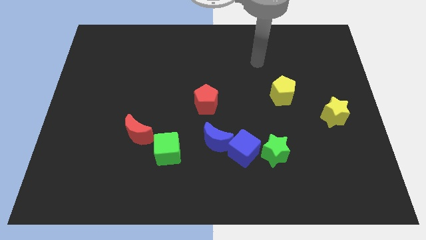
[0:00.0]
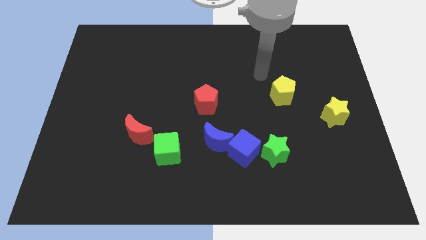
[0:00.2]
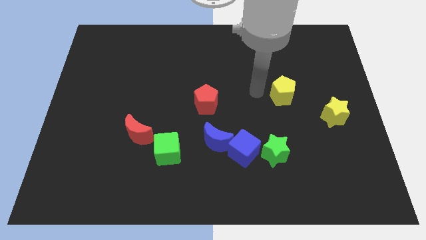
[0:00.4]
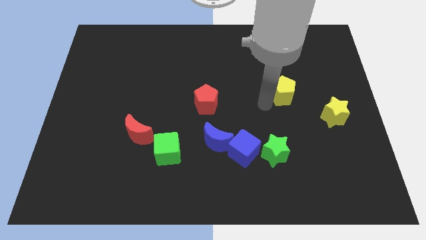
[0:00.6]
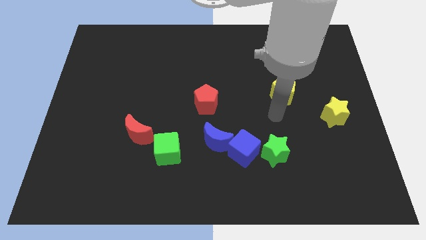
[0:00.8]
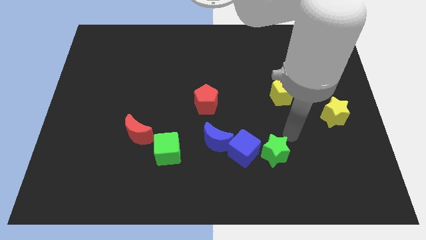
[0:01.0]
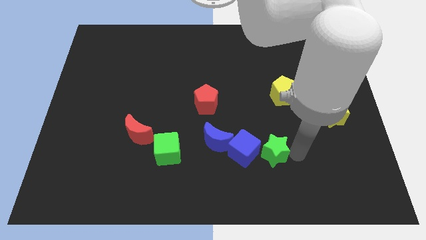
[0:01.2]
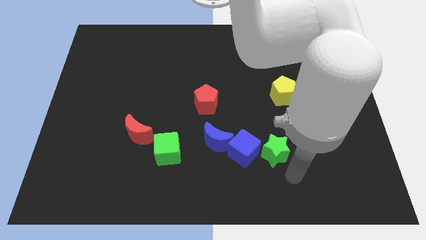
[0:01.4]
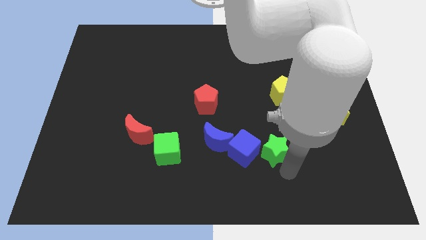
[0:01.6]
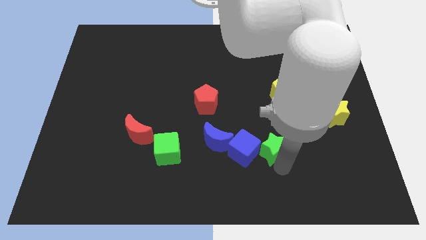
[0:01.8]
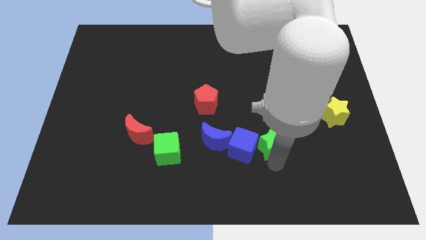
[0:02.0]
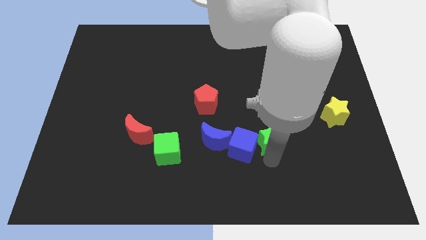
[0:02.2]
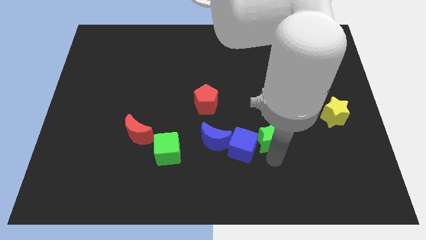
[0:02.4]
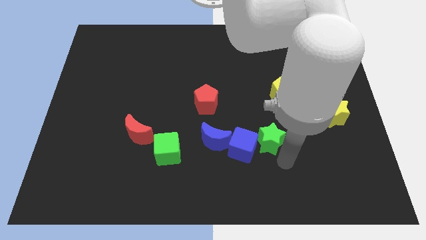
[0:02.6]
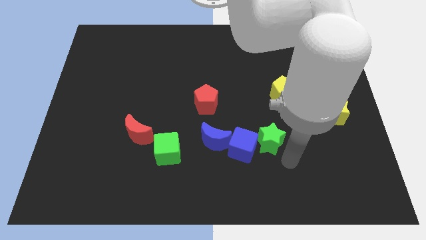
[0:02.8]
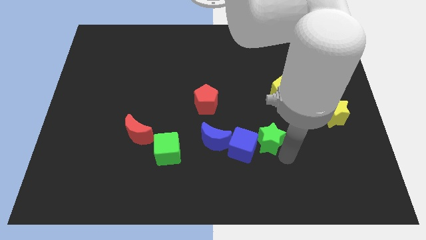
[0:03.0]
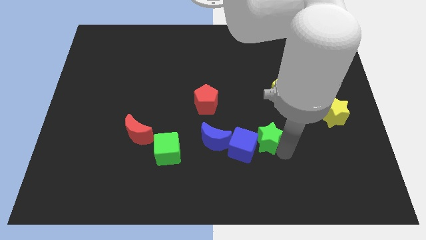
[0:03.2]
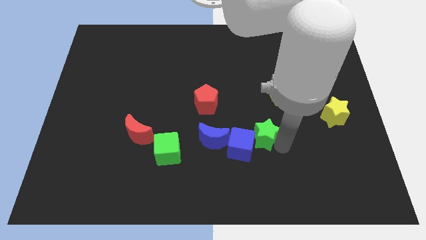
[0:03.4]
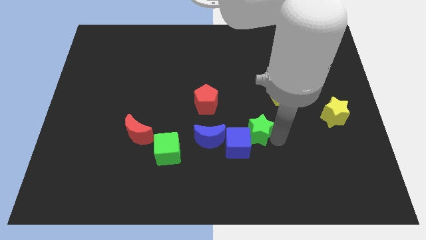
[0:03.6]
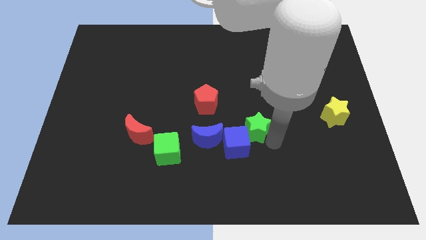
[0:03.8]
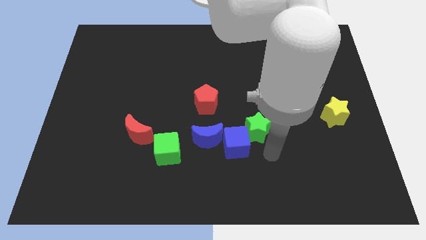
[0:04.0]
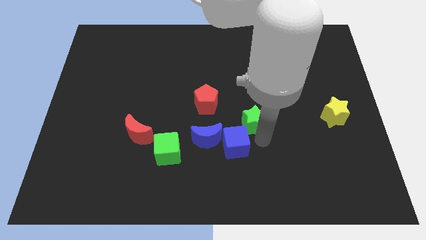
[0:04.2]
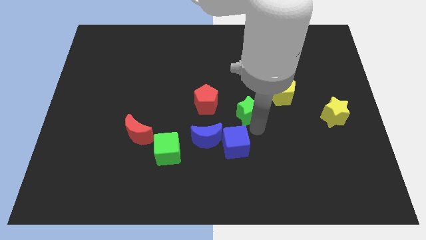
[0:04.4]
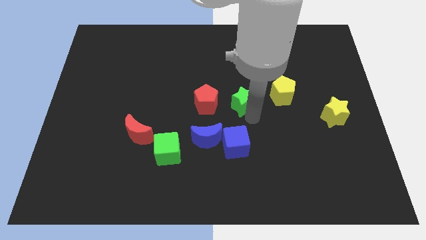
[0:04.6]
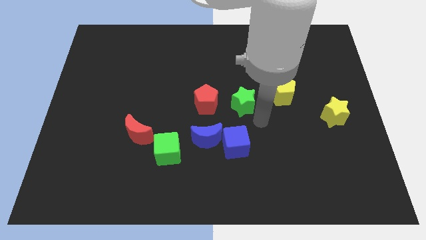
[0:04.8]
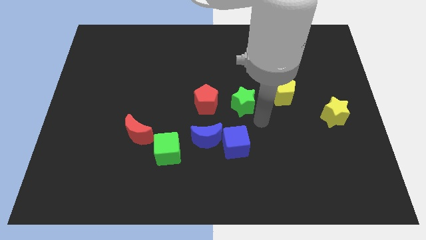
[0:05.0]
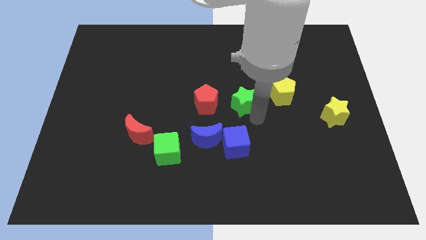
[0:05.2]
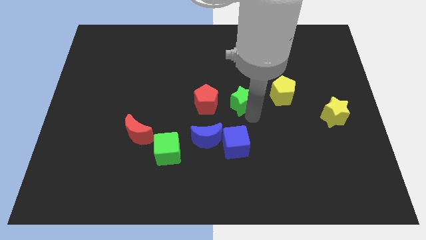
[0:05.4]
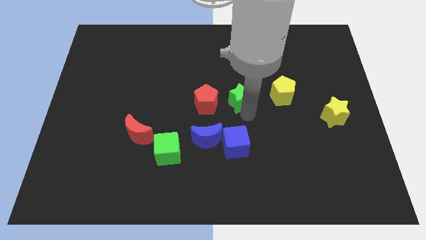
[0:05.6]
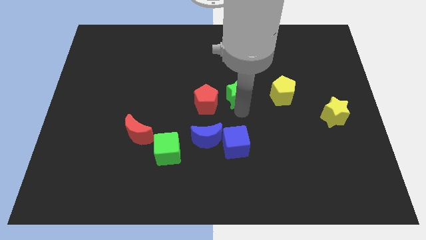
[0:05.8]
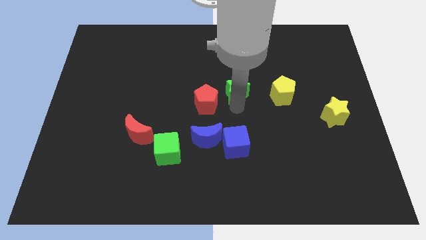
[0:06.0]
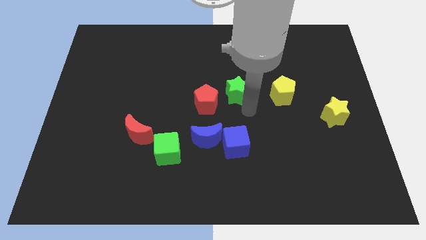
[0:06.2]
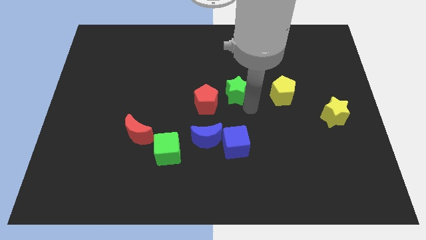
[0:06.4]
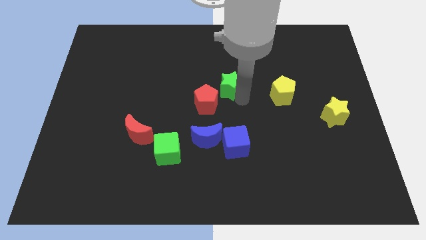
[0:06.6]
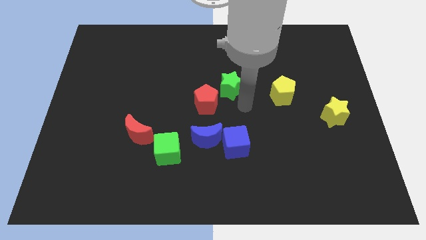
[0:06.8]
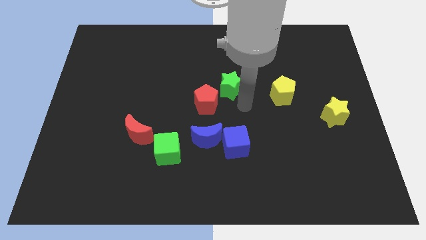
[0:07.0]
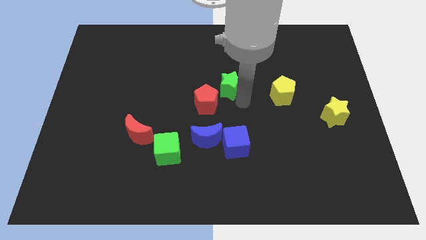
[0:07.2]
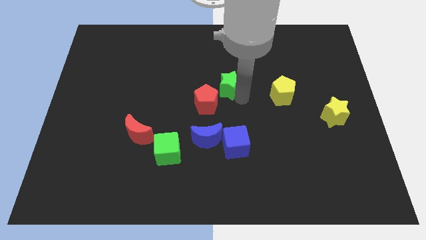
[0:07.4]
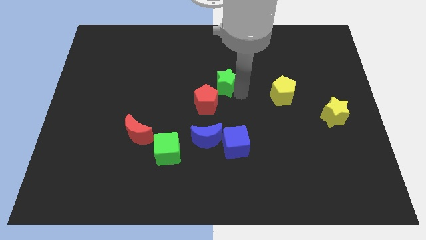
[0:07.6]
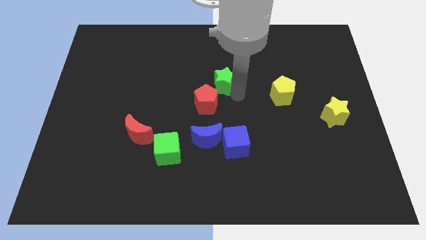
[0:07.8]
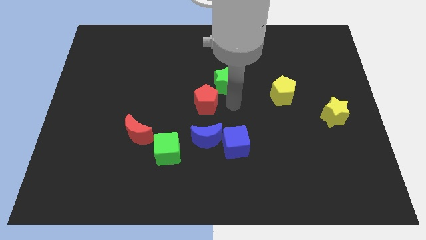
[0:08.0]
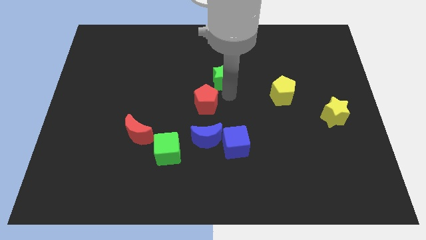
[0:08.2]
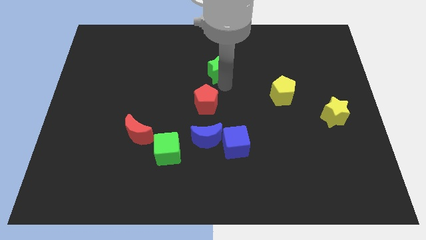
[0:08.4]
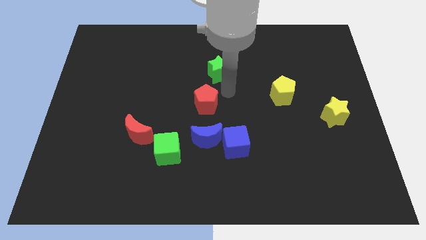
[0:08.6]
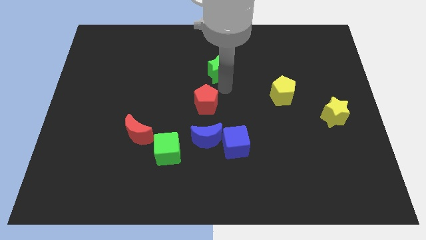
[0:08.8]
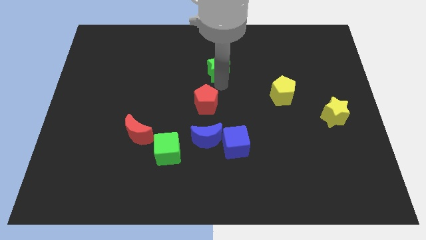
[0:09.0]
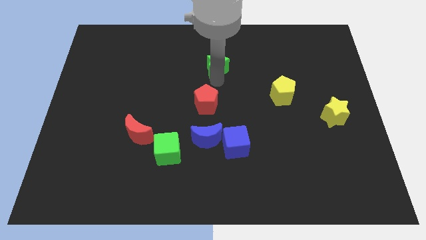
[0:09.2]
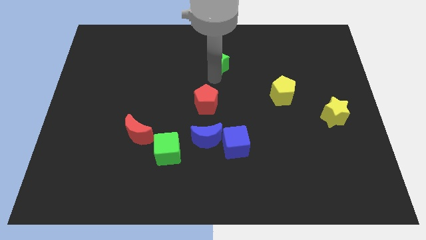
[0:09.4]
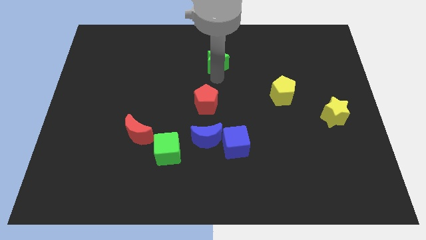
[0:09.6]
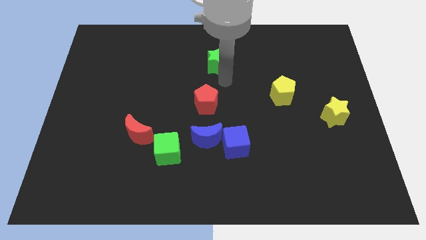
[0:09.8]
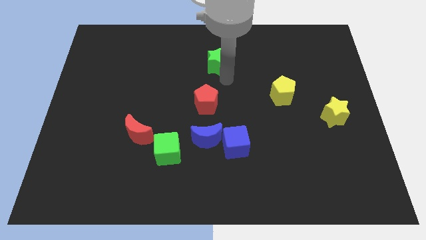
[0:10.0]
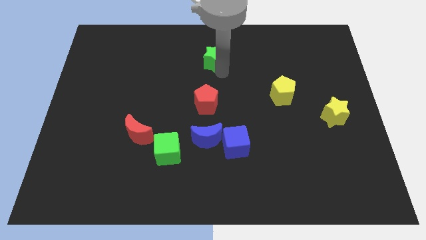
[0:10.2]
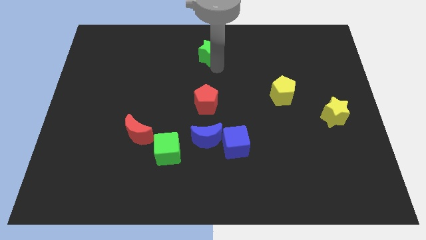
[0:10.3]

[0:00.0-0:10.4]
move the green star to the top side

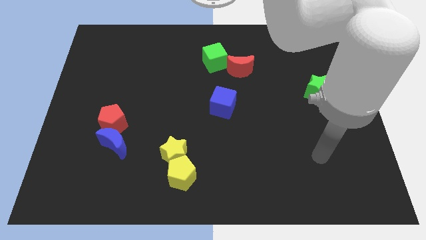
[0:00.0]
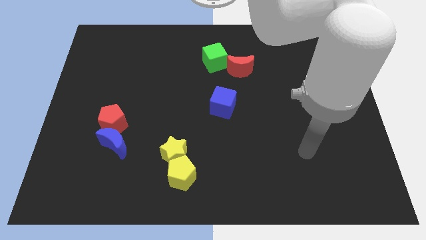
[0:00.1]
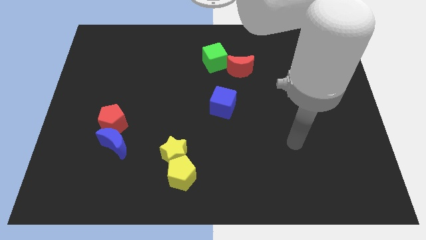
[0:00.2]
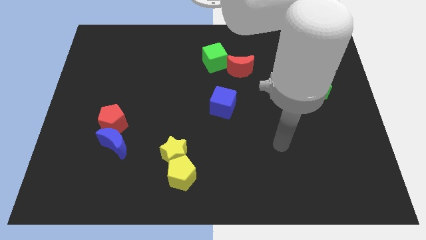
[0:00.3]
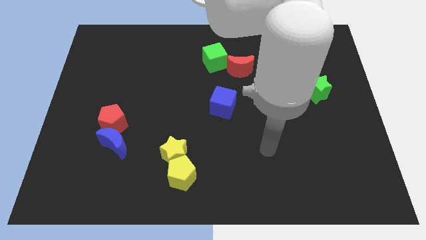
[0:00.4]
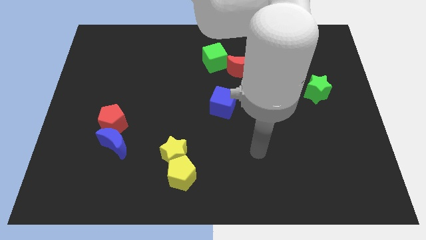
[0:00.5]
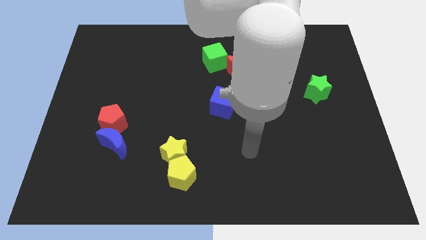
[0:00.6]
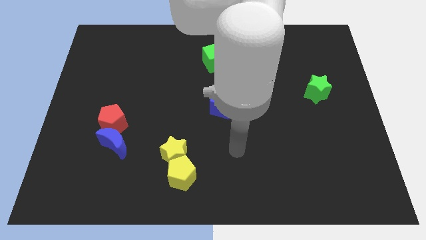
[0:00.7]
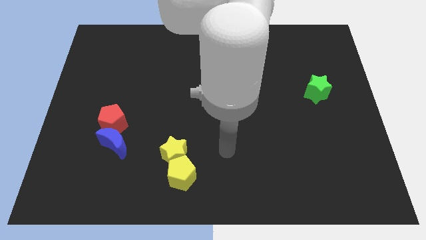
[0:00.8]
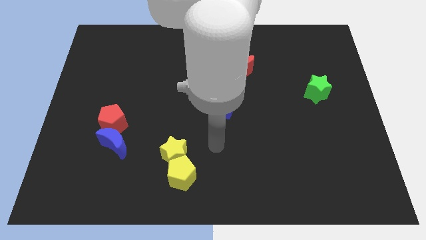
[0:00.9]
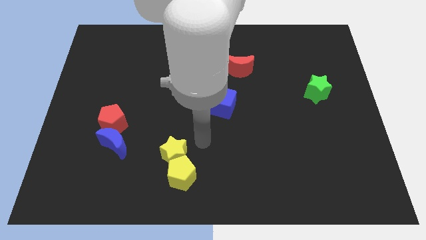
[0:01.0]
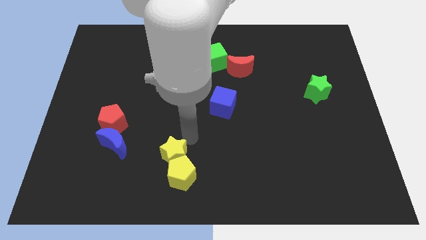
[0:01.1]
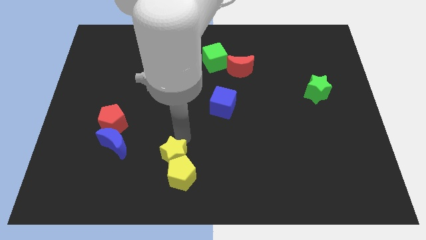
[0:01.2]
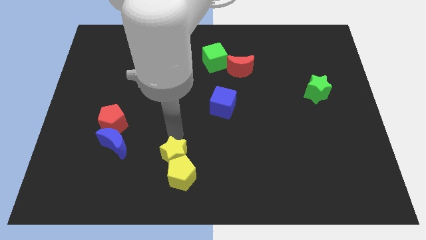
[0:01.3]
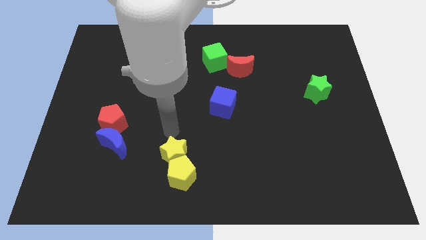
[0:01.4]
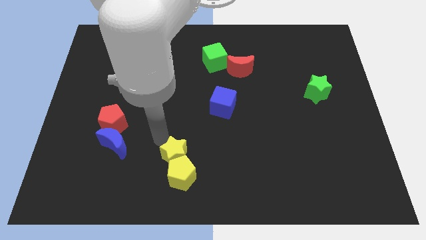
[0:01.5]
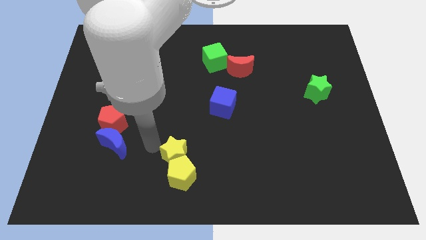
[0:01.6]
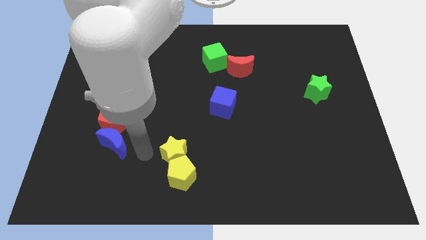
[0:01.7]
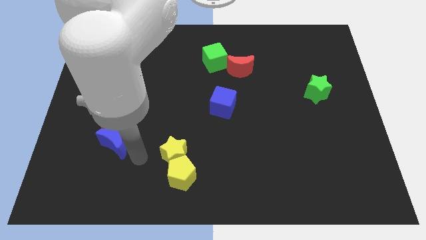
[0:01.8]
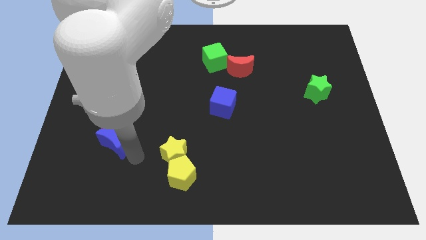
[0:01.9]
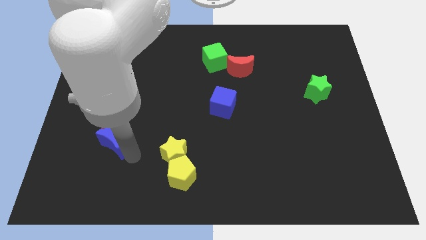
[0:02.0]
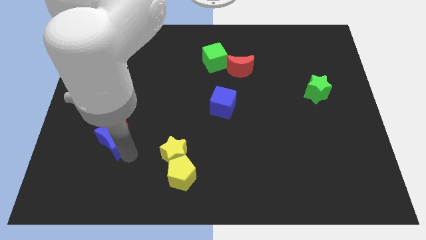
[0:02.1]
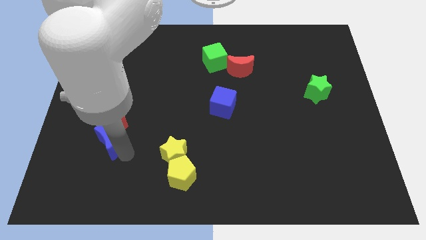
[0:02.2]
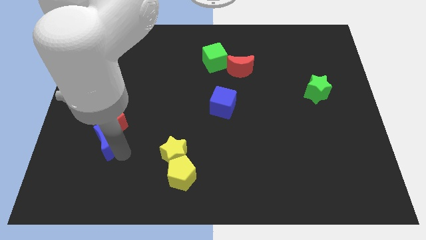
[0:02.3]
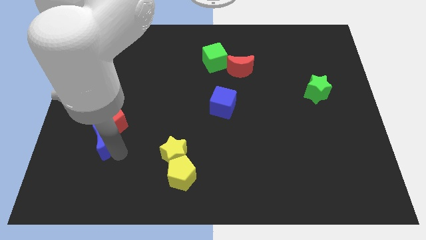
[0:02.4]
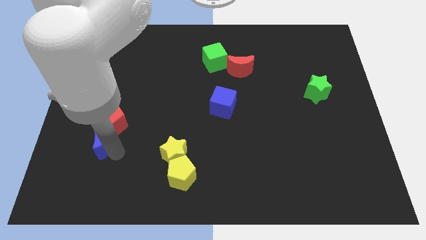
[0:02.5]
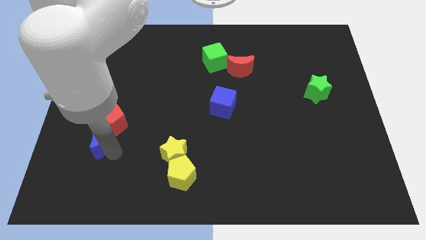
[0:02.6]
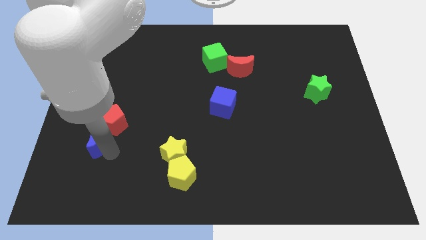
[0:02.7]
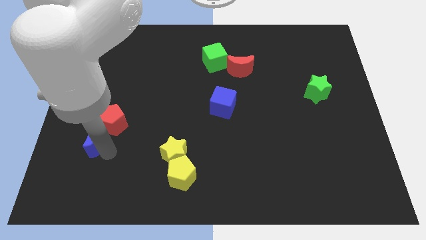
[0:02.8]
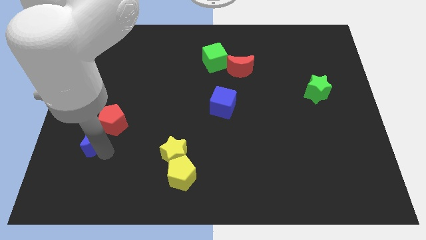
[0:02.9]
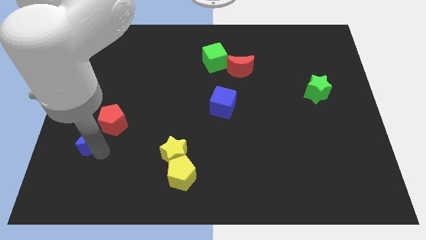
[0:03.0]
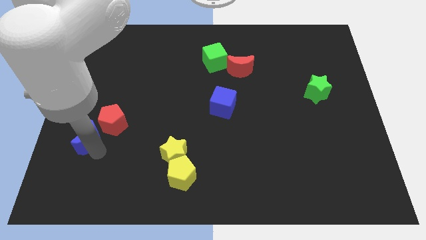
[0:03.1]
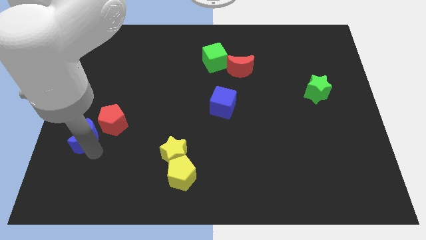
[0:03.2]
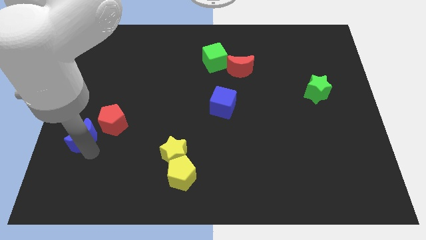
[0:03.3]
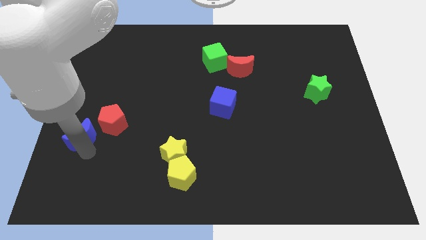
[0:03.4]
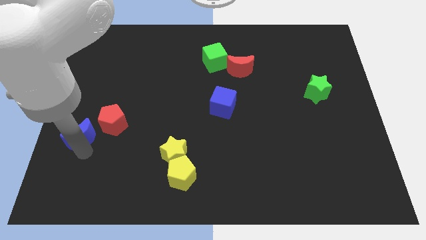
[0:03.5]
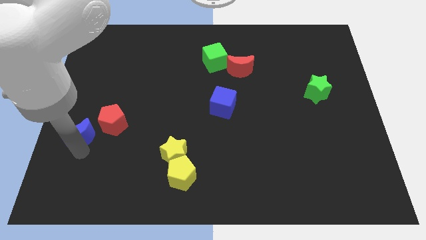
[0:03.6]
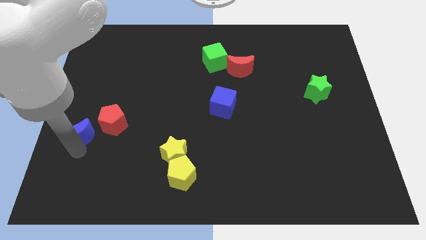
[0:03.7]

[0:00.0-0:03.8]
move the blue moon to the left side
